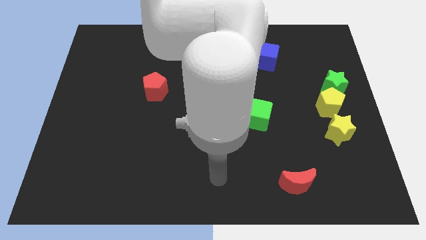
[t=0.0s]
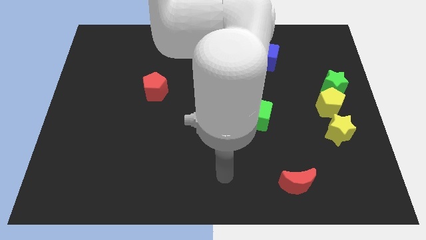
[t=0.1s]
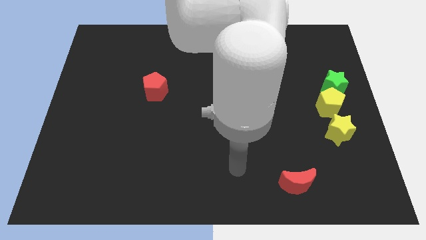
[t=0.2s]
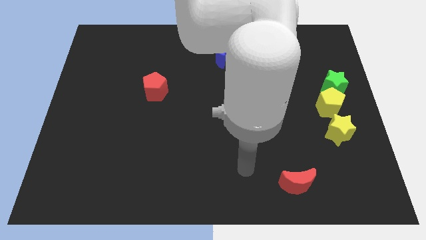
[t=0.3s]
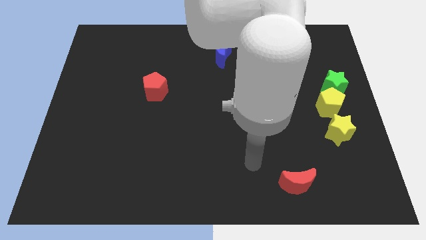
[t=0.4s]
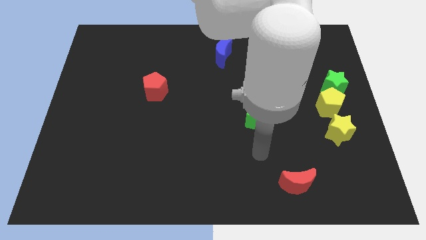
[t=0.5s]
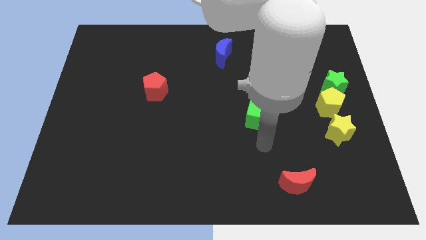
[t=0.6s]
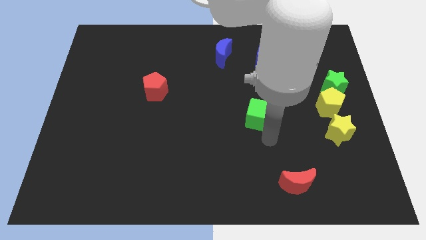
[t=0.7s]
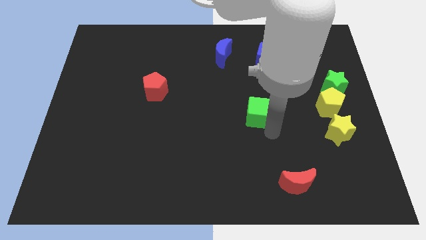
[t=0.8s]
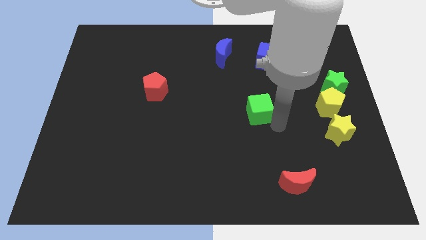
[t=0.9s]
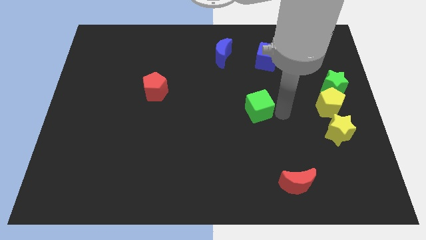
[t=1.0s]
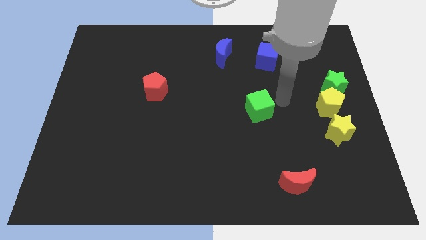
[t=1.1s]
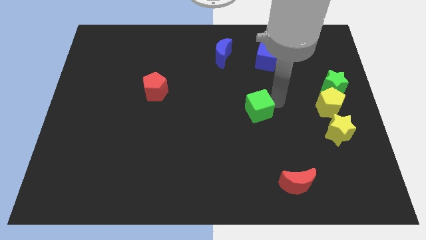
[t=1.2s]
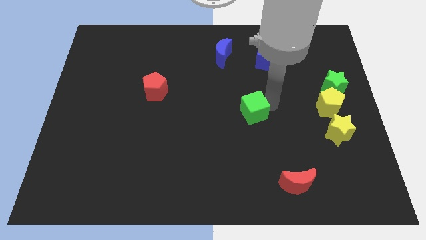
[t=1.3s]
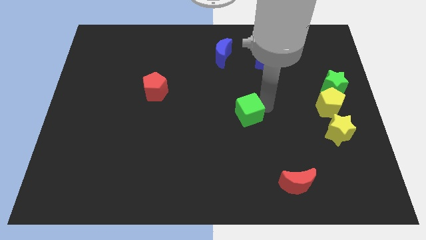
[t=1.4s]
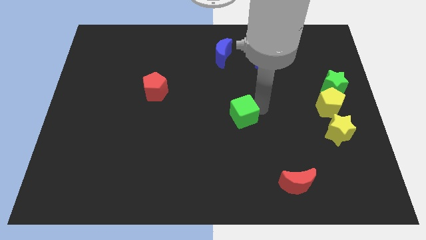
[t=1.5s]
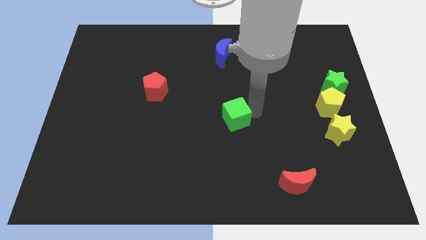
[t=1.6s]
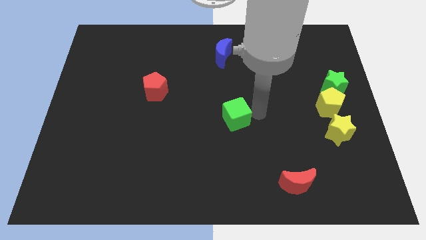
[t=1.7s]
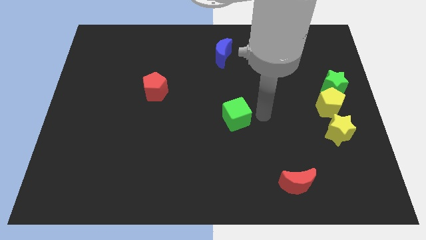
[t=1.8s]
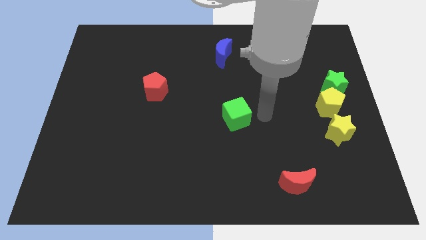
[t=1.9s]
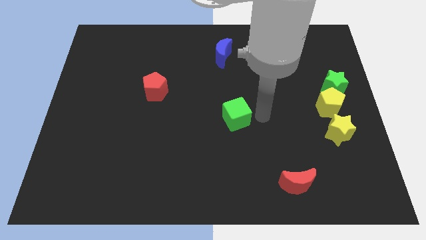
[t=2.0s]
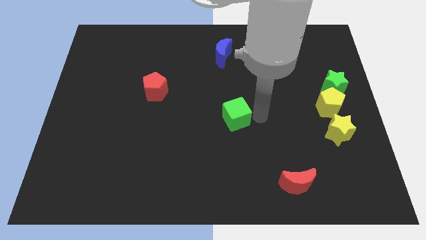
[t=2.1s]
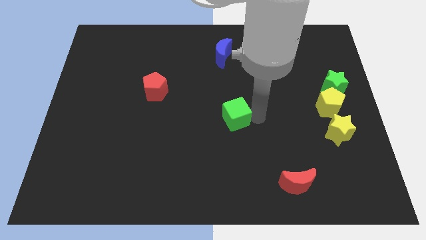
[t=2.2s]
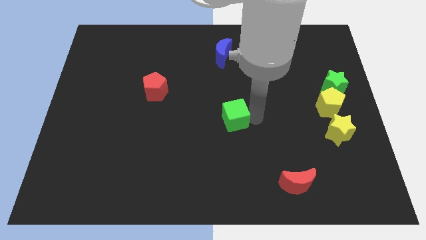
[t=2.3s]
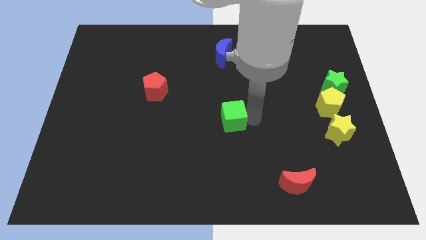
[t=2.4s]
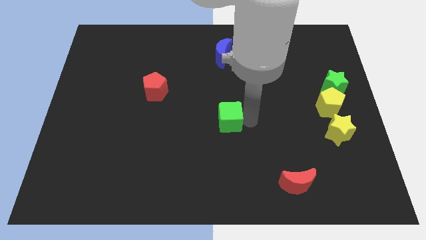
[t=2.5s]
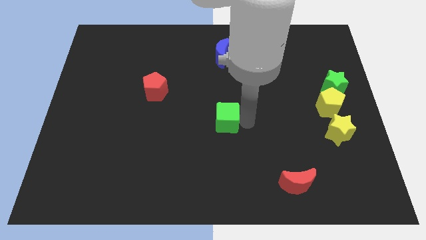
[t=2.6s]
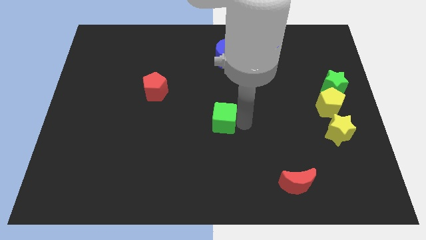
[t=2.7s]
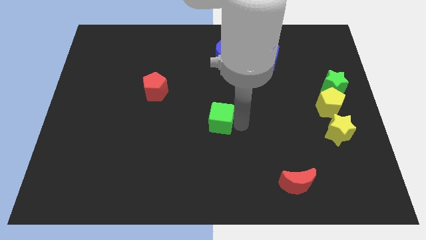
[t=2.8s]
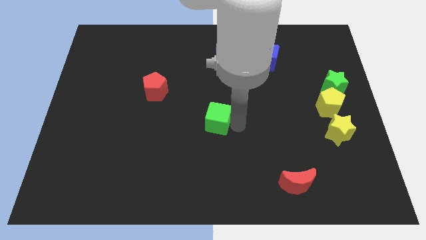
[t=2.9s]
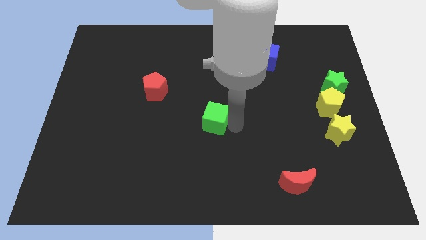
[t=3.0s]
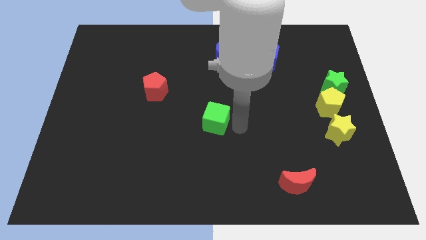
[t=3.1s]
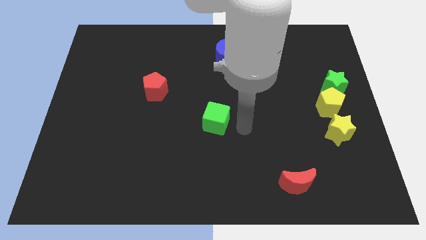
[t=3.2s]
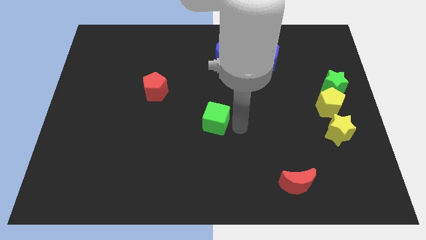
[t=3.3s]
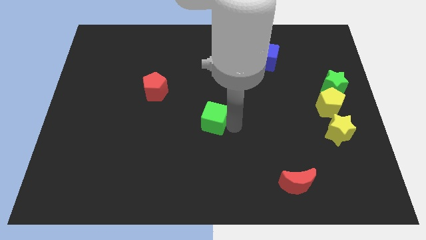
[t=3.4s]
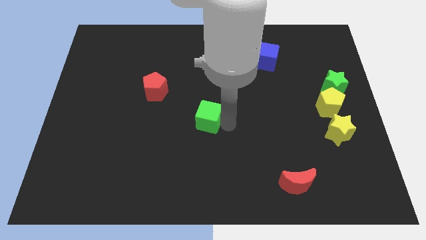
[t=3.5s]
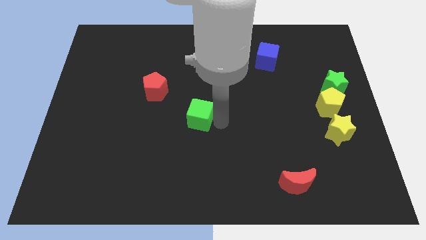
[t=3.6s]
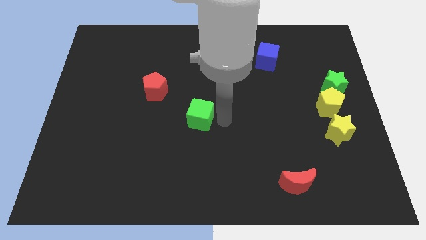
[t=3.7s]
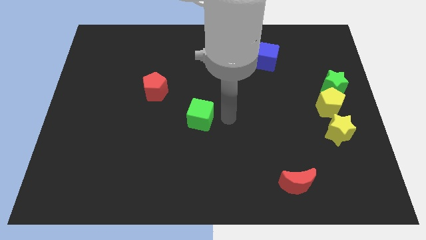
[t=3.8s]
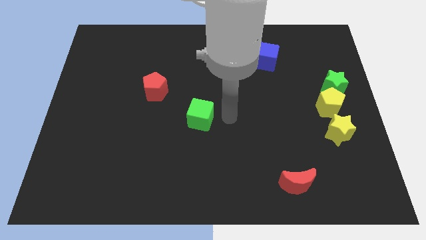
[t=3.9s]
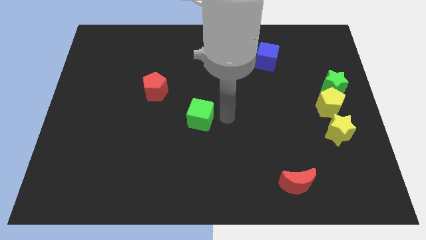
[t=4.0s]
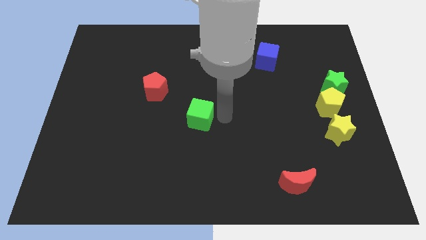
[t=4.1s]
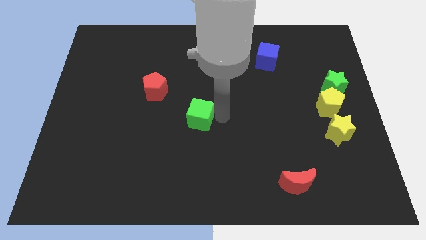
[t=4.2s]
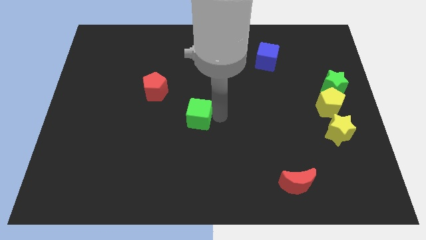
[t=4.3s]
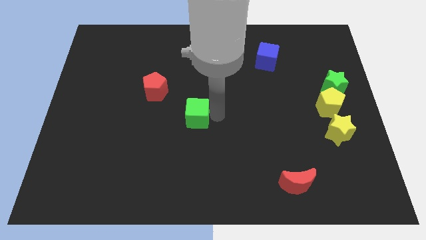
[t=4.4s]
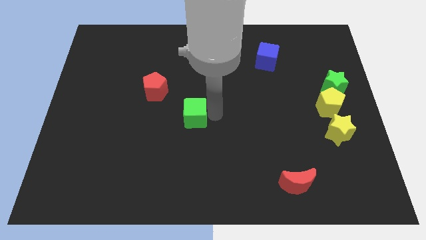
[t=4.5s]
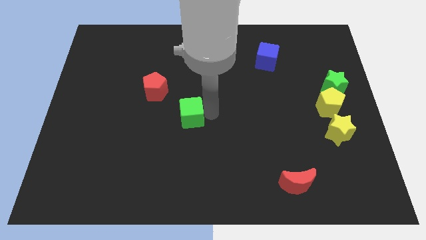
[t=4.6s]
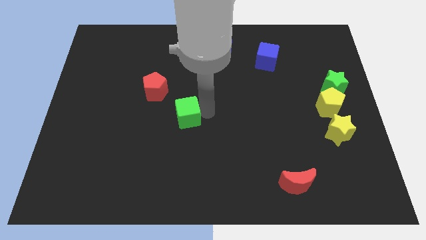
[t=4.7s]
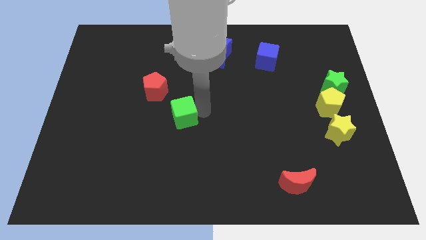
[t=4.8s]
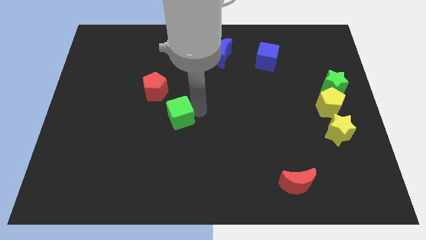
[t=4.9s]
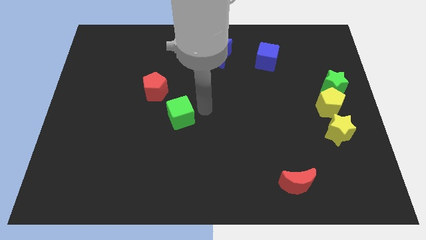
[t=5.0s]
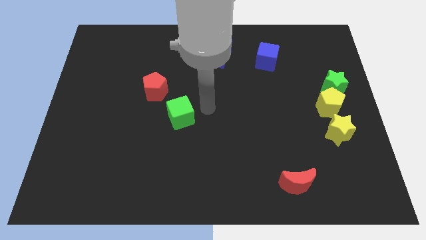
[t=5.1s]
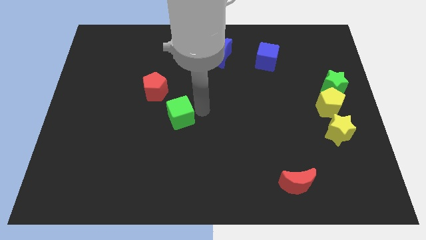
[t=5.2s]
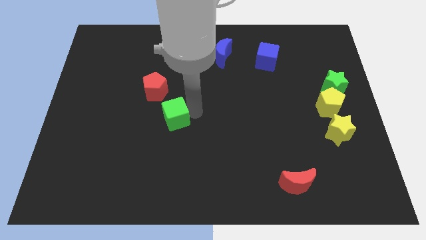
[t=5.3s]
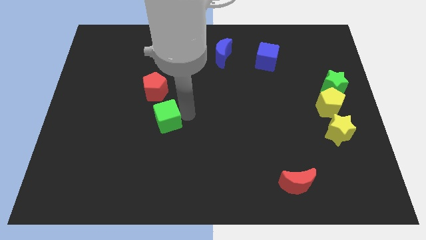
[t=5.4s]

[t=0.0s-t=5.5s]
put the green cube below the red pentagon

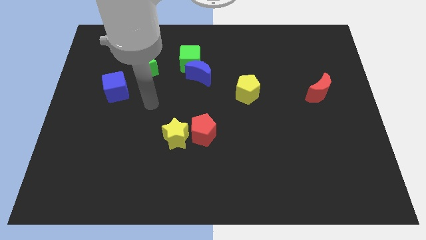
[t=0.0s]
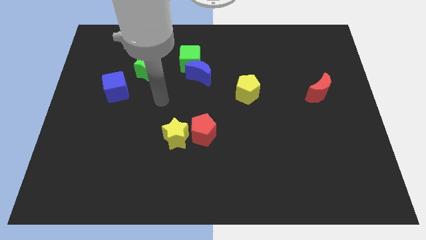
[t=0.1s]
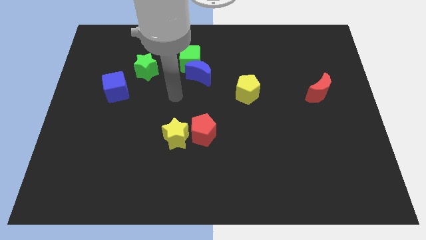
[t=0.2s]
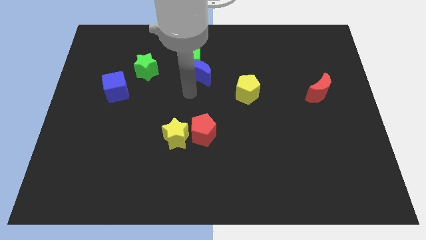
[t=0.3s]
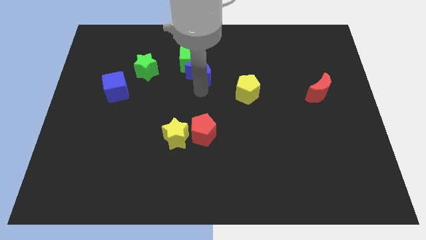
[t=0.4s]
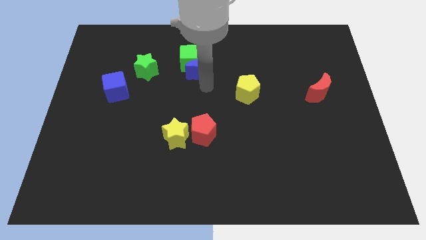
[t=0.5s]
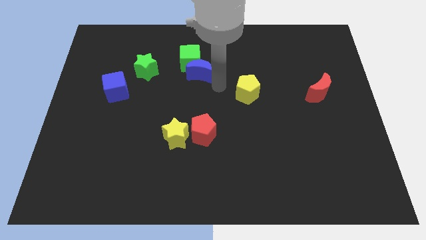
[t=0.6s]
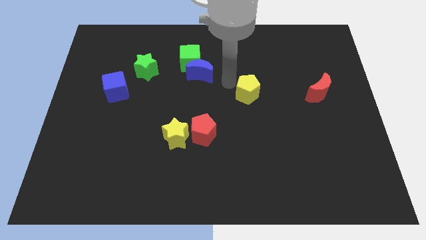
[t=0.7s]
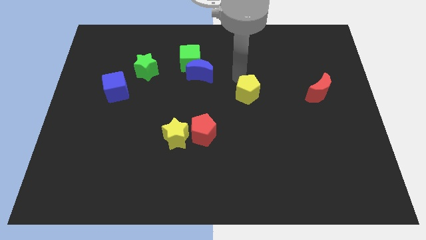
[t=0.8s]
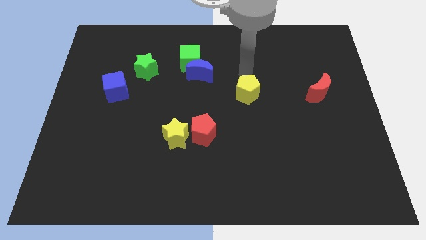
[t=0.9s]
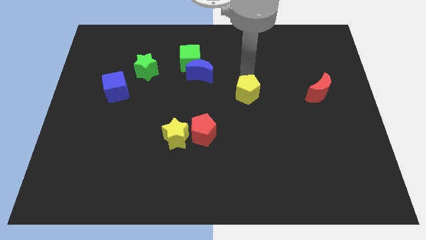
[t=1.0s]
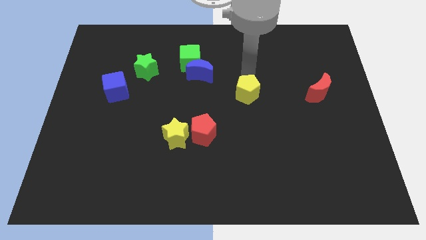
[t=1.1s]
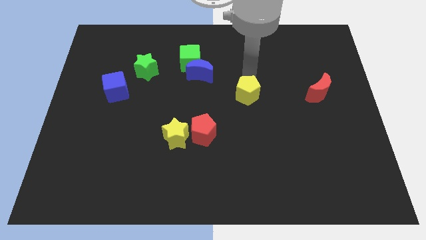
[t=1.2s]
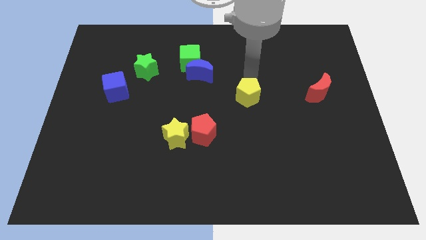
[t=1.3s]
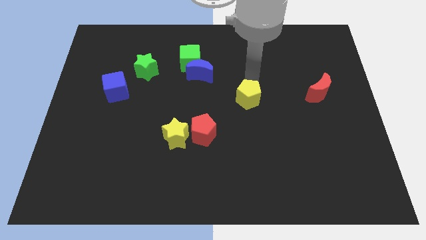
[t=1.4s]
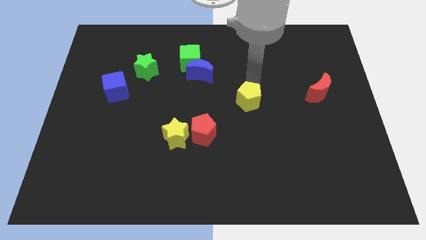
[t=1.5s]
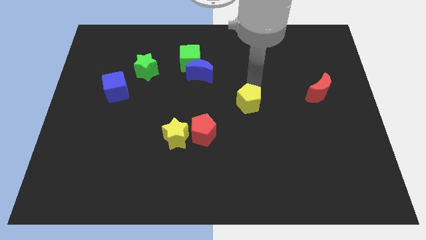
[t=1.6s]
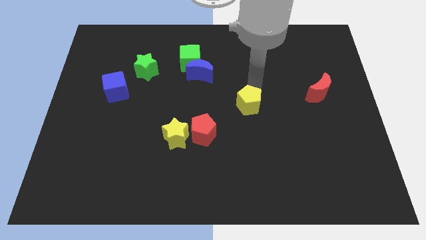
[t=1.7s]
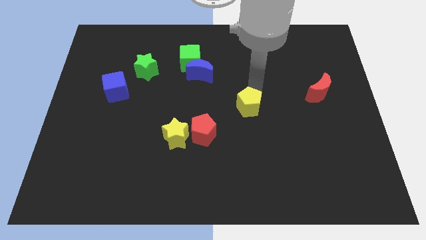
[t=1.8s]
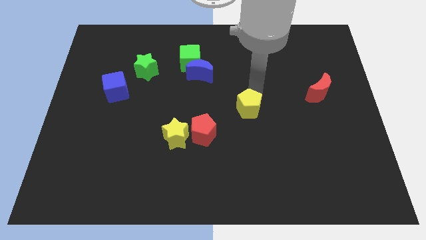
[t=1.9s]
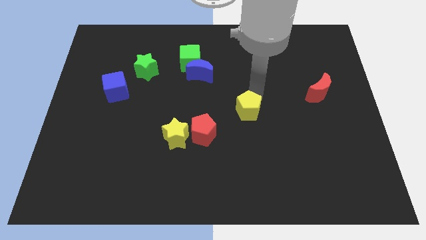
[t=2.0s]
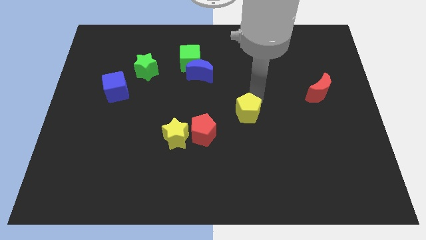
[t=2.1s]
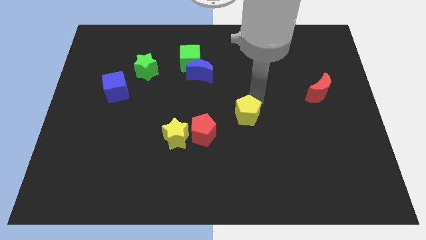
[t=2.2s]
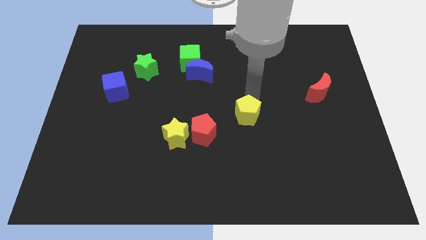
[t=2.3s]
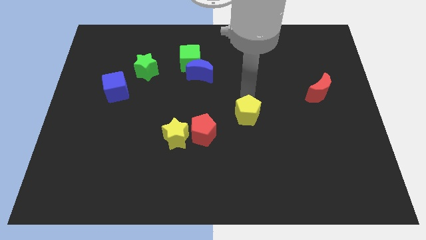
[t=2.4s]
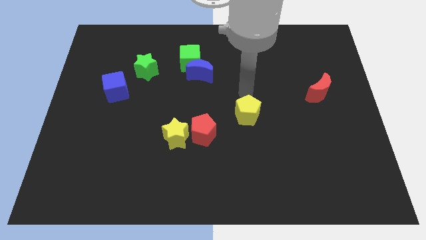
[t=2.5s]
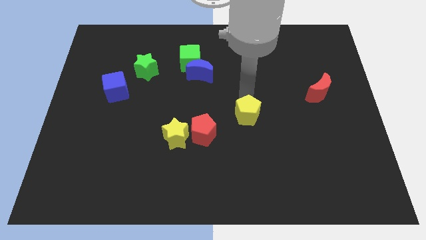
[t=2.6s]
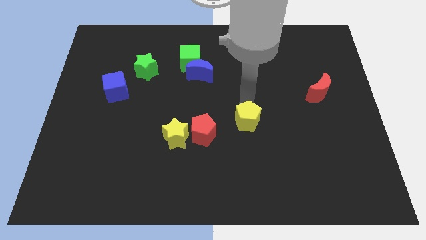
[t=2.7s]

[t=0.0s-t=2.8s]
put the yellow pentagon right of the red pentagon
